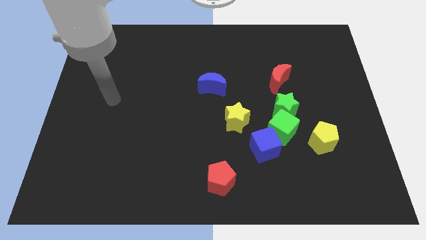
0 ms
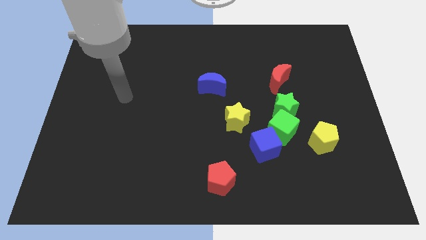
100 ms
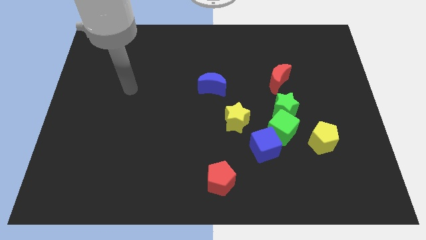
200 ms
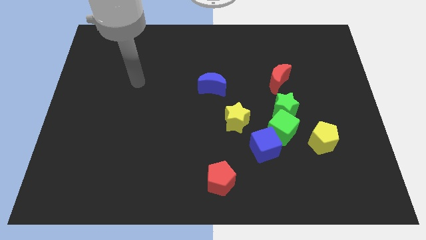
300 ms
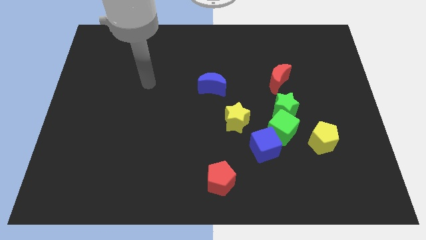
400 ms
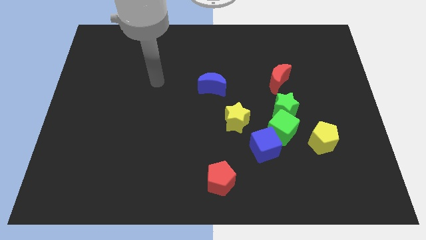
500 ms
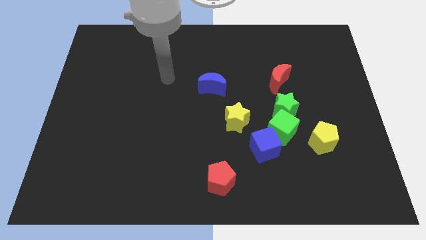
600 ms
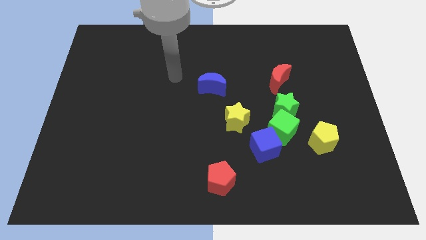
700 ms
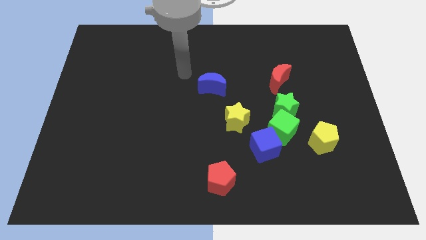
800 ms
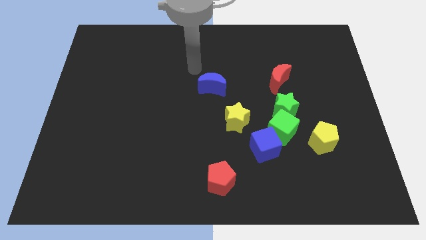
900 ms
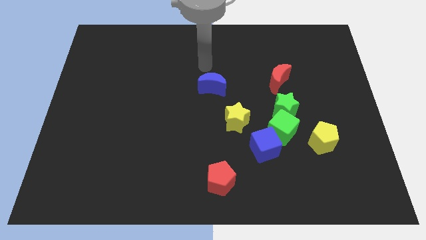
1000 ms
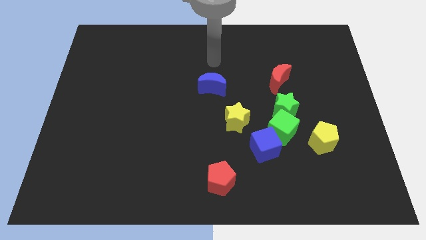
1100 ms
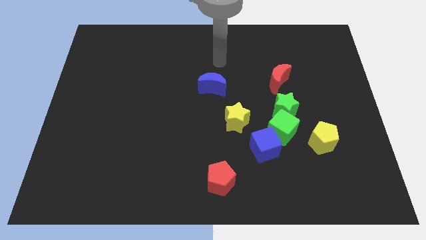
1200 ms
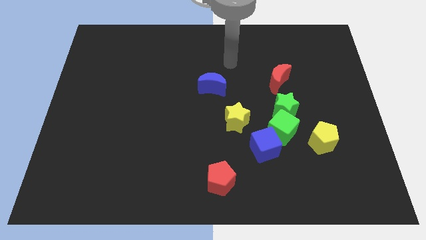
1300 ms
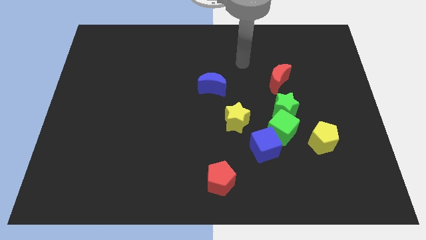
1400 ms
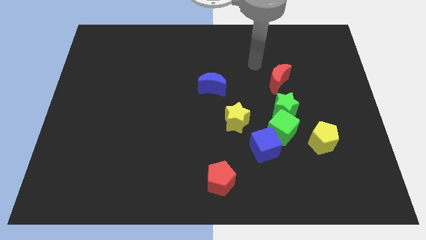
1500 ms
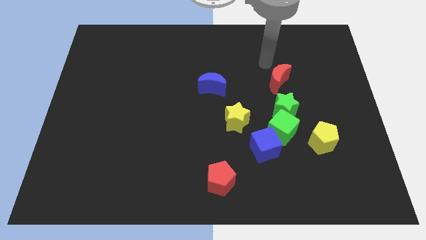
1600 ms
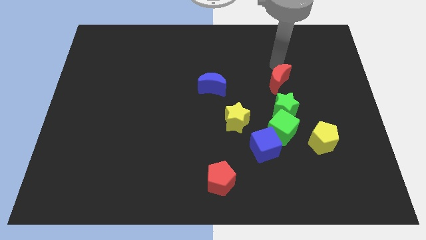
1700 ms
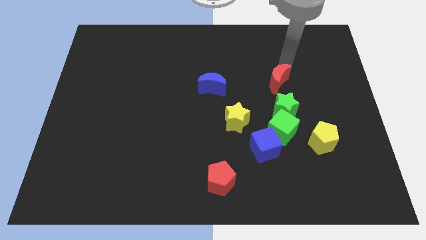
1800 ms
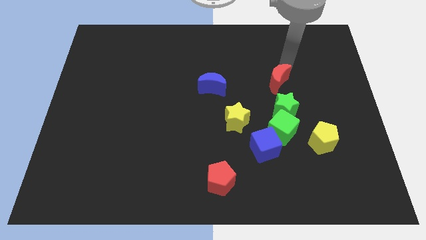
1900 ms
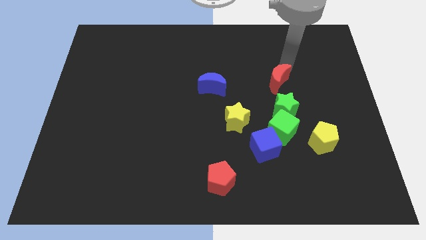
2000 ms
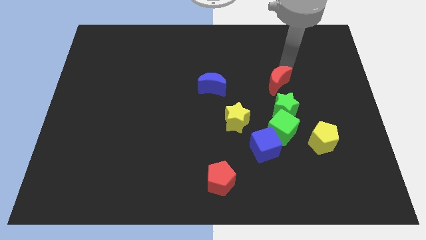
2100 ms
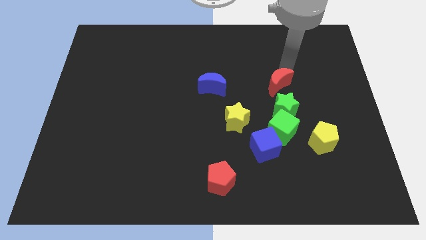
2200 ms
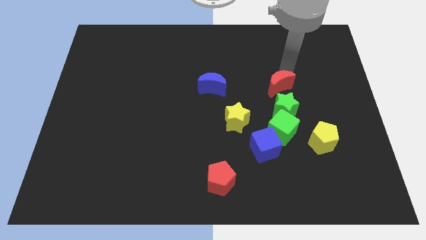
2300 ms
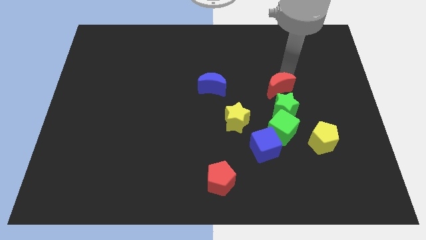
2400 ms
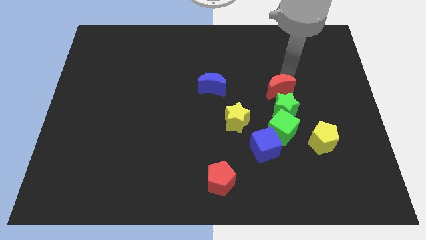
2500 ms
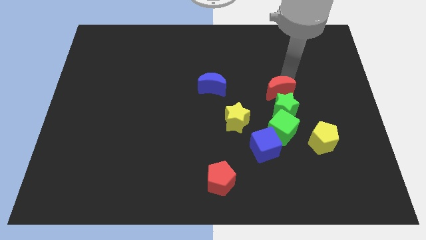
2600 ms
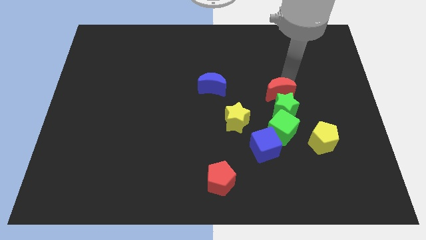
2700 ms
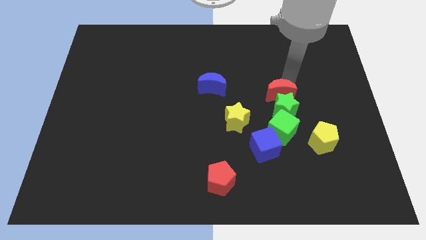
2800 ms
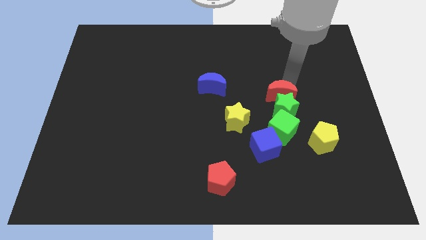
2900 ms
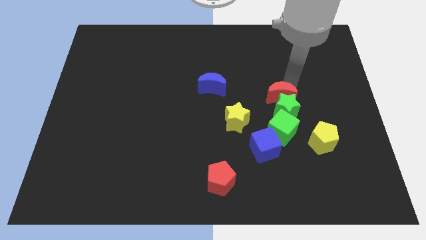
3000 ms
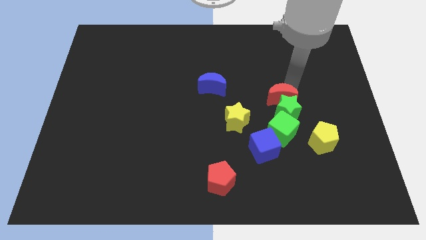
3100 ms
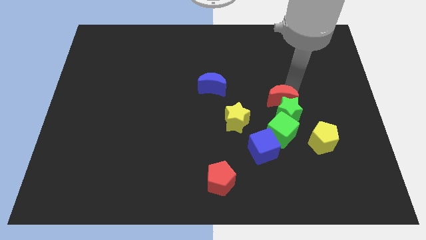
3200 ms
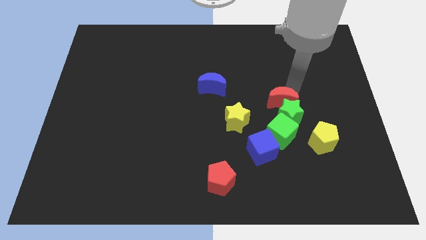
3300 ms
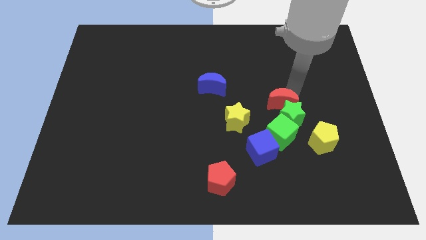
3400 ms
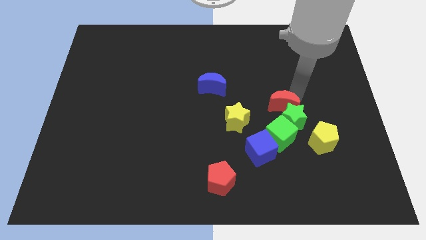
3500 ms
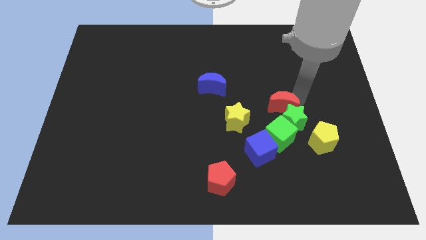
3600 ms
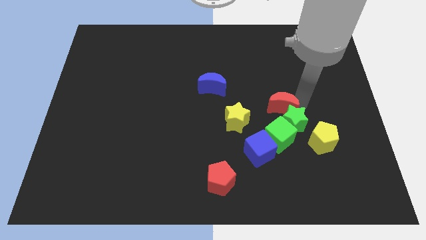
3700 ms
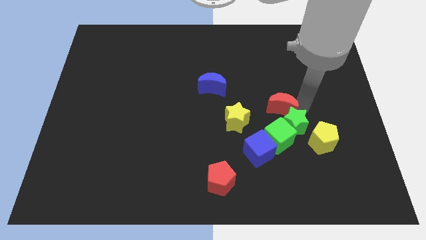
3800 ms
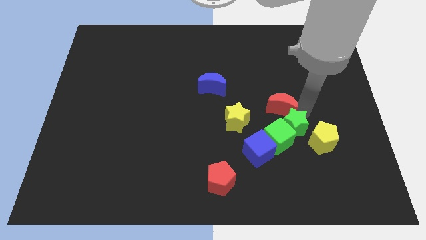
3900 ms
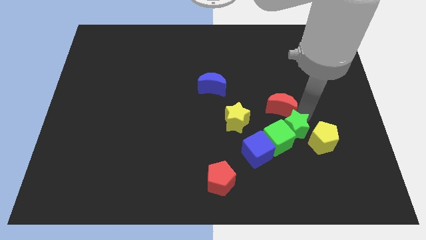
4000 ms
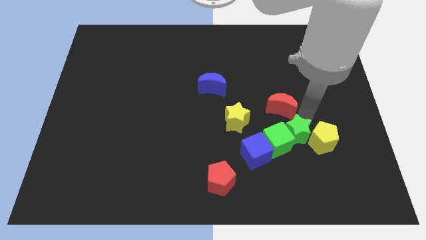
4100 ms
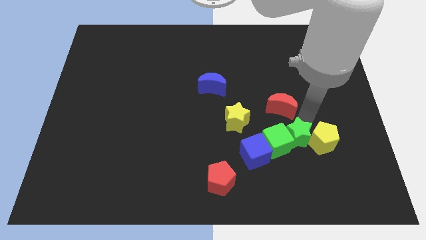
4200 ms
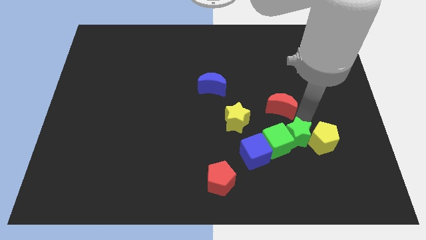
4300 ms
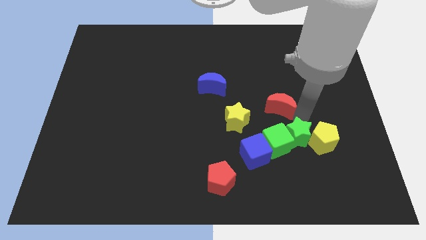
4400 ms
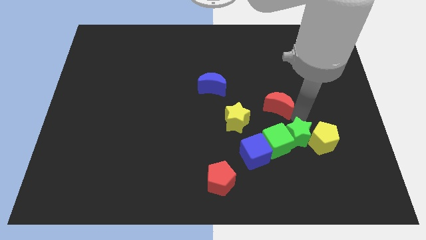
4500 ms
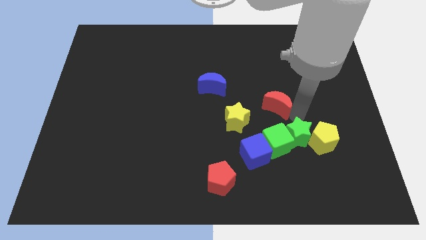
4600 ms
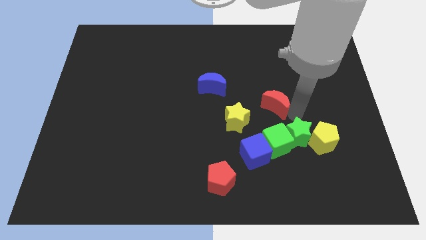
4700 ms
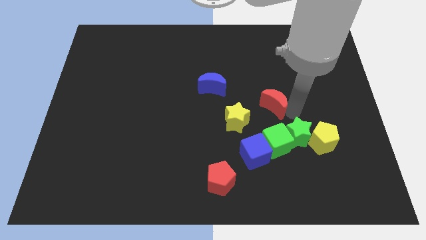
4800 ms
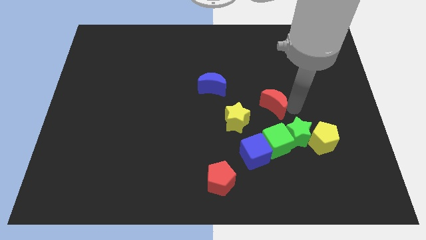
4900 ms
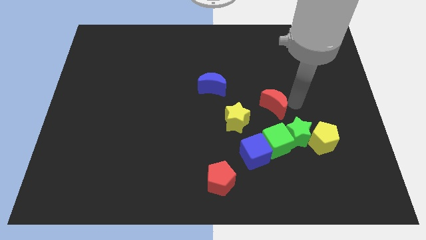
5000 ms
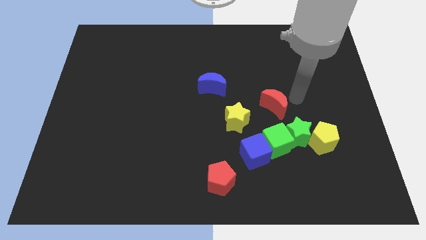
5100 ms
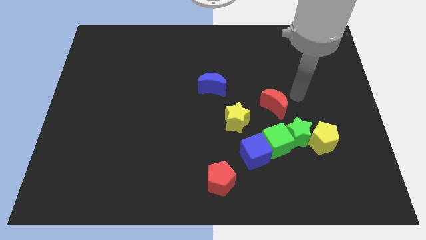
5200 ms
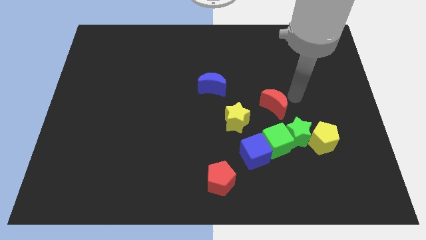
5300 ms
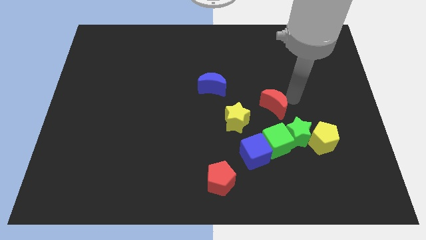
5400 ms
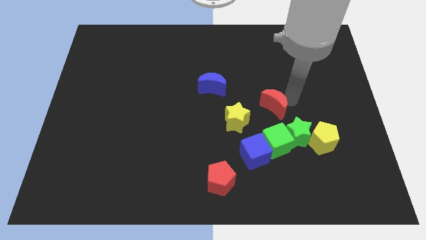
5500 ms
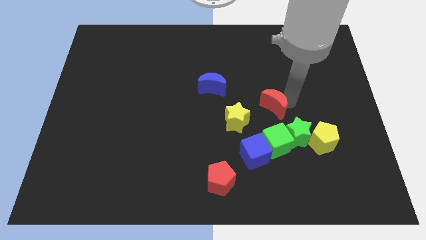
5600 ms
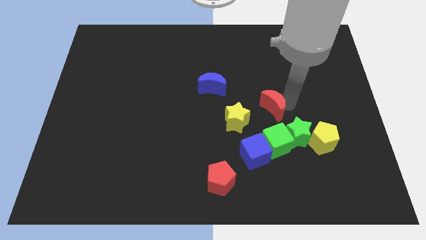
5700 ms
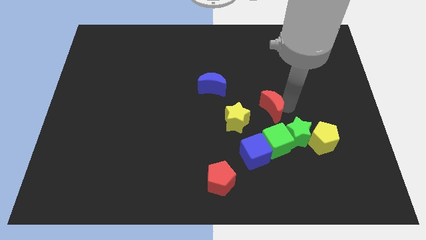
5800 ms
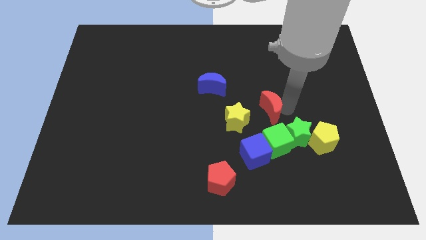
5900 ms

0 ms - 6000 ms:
move the red moon to the top of the blue cube

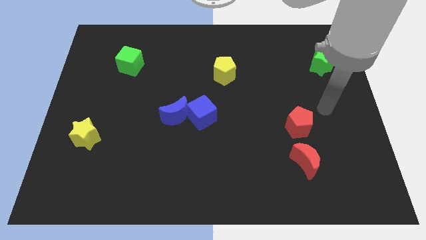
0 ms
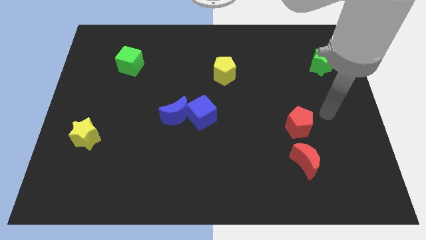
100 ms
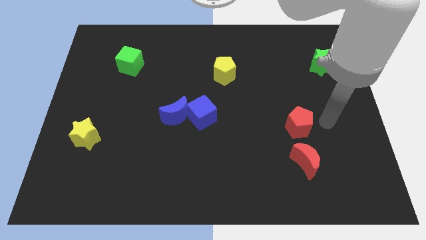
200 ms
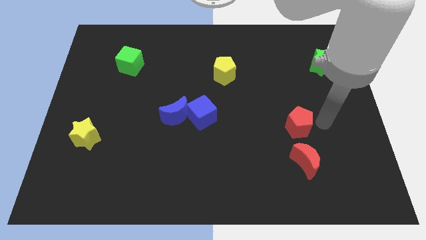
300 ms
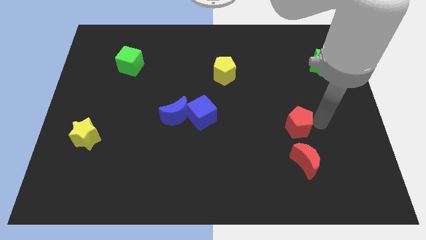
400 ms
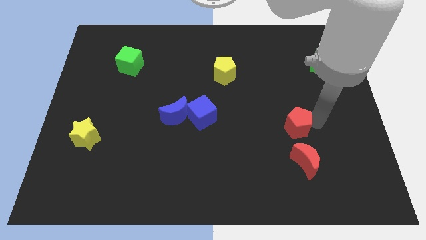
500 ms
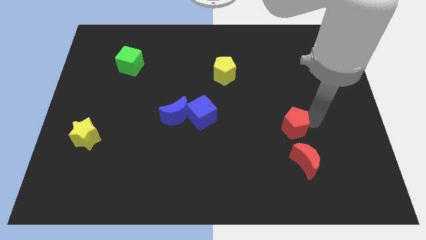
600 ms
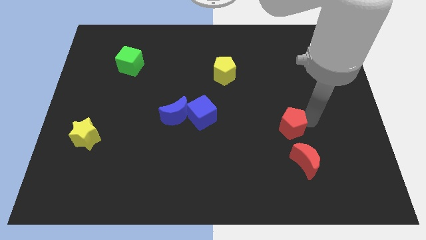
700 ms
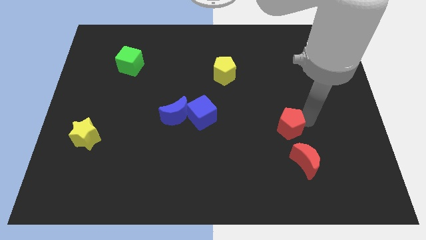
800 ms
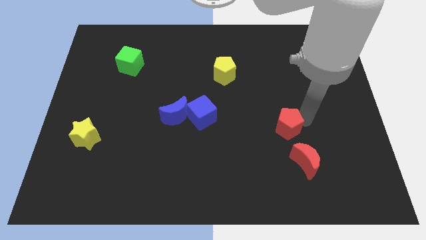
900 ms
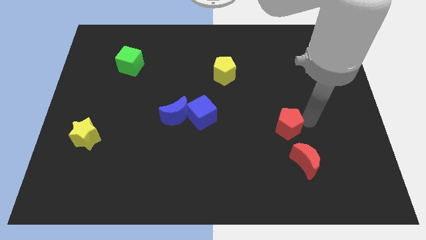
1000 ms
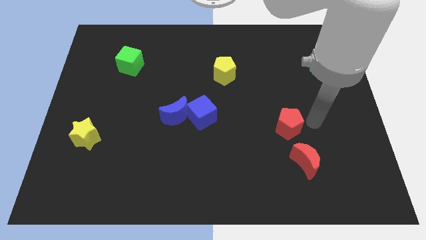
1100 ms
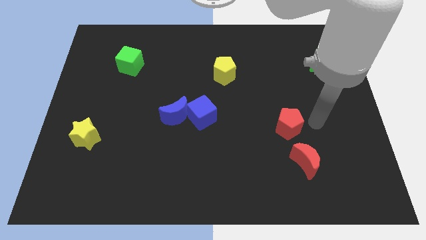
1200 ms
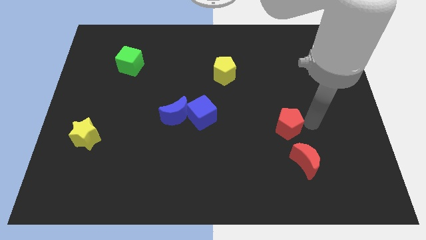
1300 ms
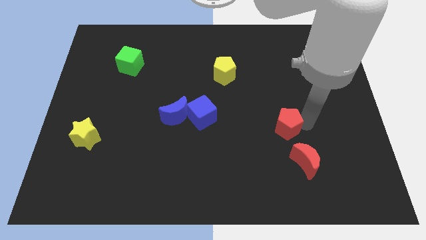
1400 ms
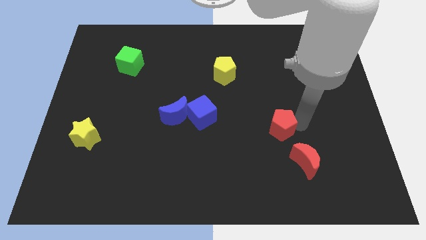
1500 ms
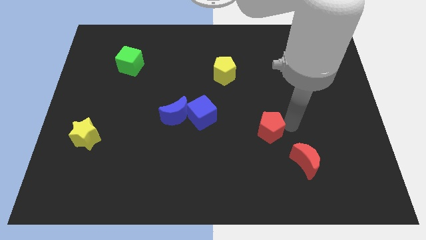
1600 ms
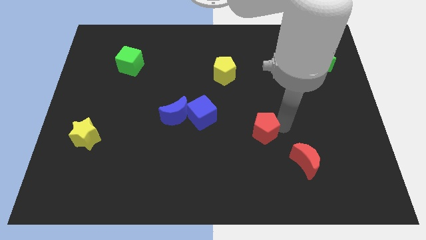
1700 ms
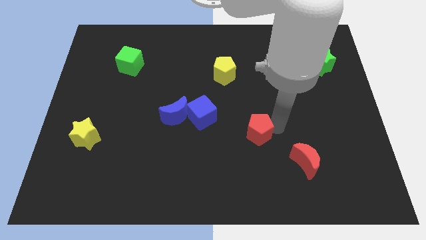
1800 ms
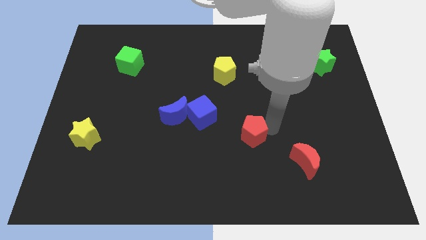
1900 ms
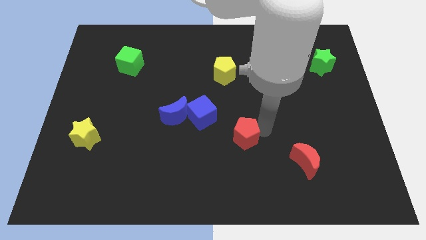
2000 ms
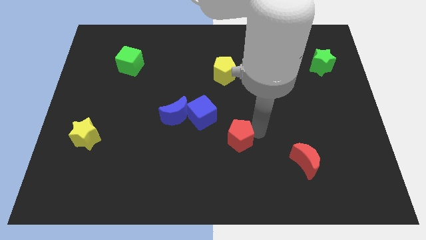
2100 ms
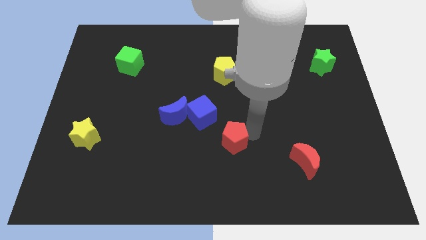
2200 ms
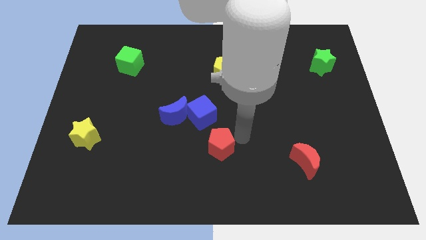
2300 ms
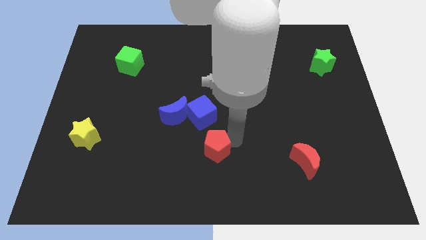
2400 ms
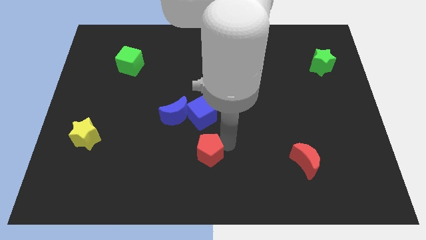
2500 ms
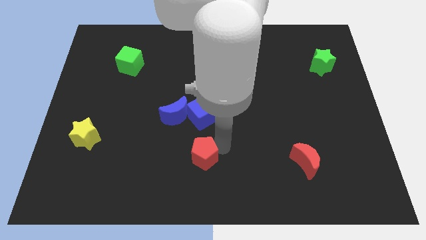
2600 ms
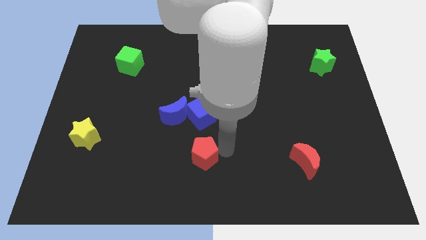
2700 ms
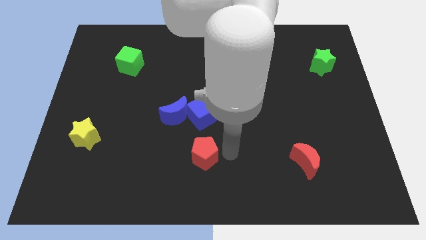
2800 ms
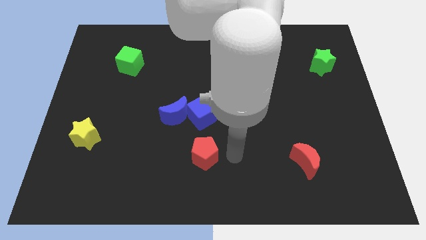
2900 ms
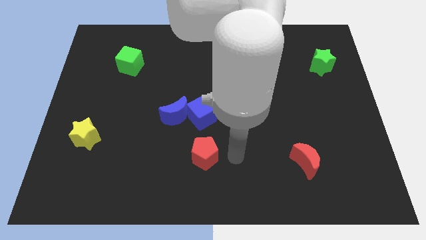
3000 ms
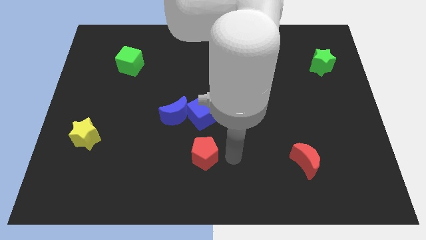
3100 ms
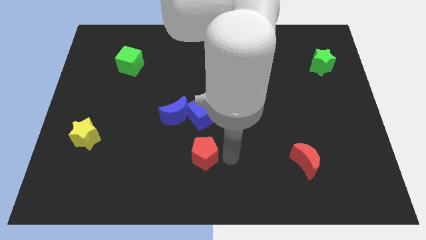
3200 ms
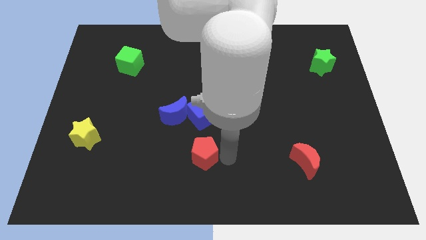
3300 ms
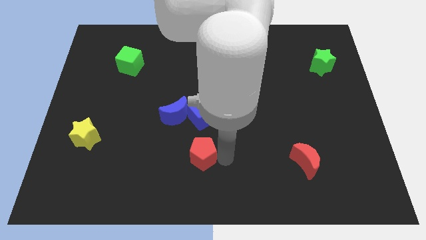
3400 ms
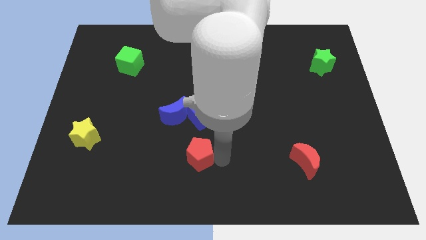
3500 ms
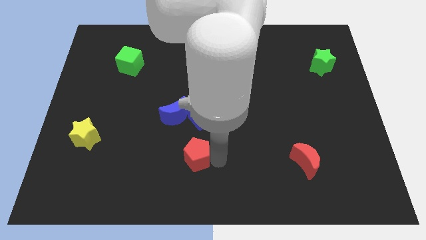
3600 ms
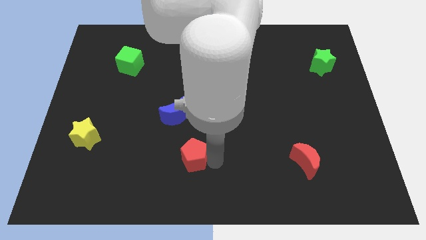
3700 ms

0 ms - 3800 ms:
push the red pentagon below the blue moon
